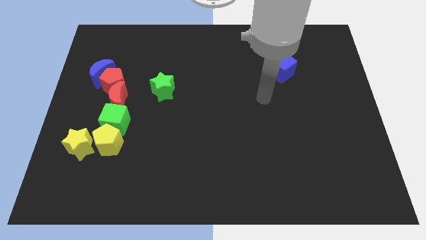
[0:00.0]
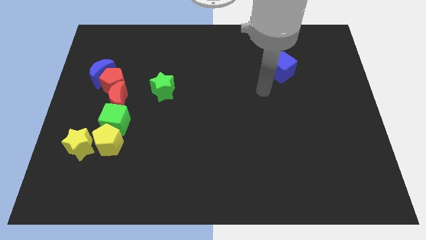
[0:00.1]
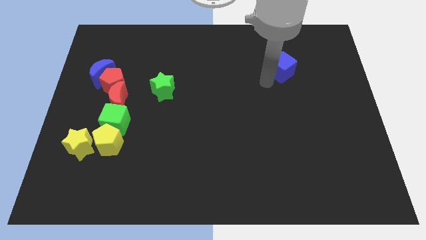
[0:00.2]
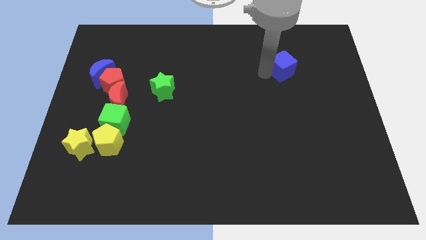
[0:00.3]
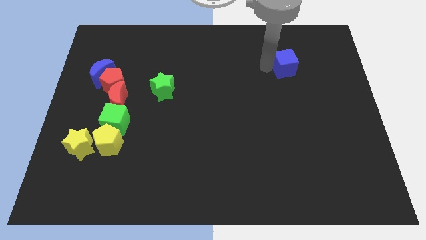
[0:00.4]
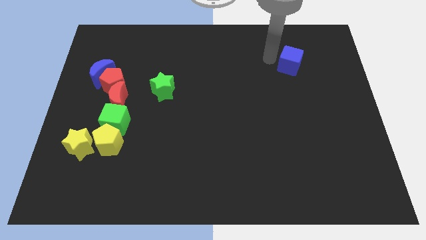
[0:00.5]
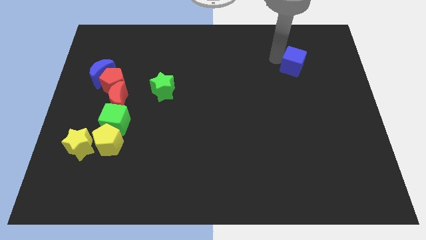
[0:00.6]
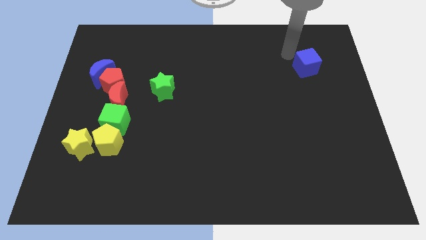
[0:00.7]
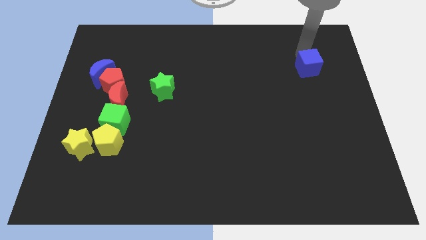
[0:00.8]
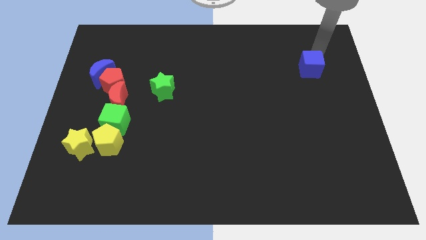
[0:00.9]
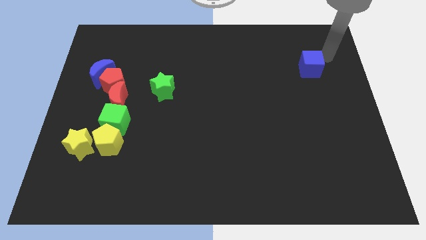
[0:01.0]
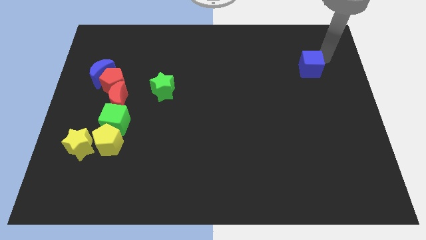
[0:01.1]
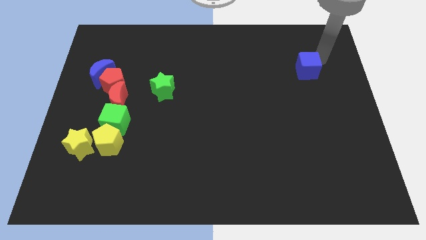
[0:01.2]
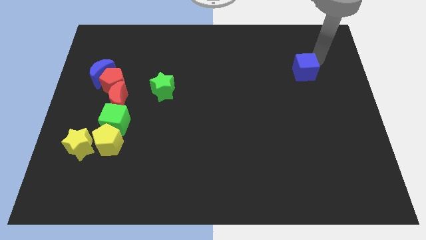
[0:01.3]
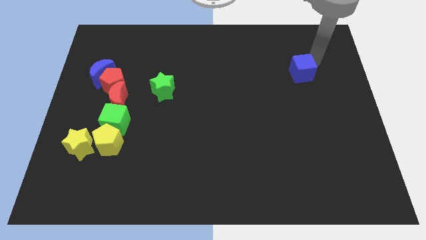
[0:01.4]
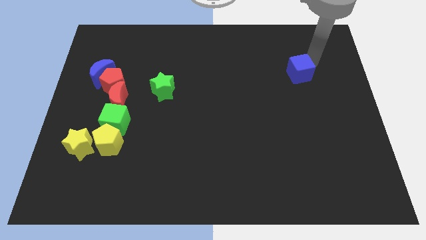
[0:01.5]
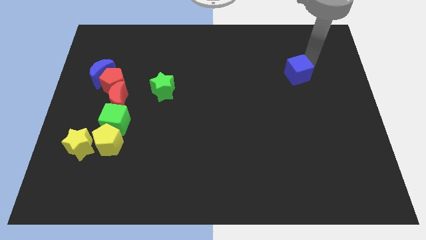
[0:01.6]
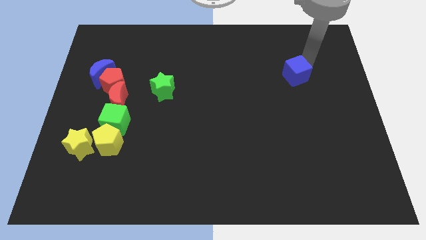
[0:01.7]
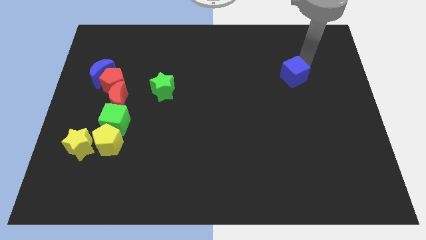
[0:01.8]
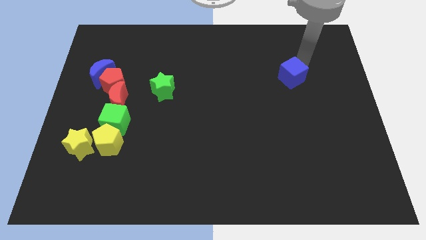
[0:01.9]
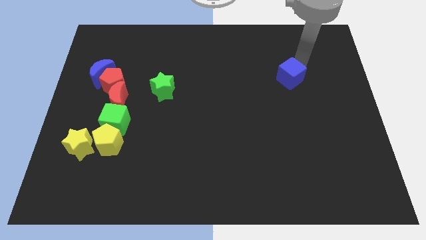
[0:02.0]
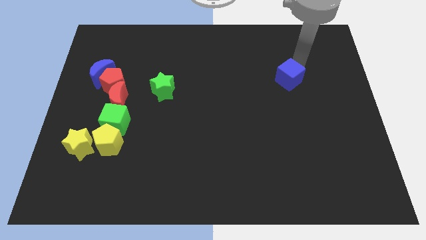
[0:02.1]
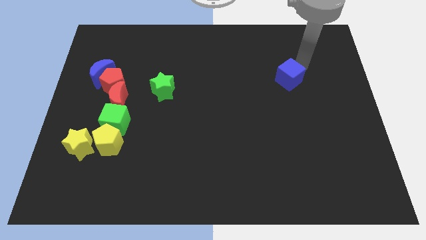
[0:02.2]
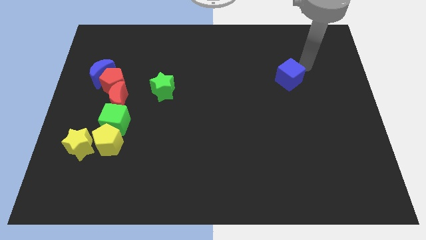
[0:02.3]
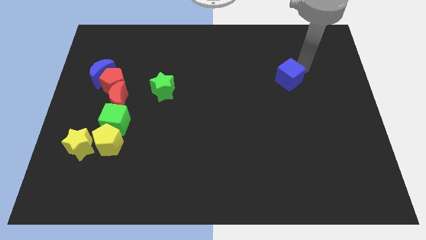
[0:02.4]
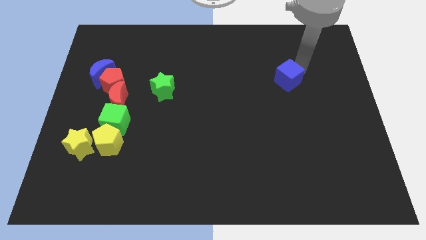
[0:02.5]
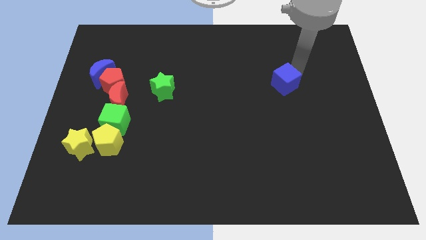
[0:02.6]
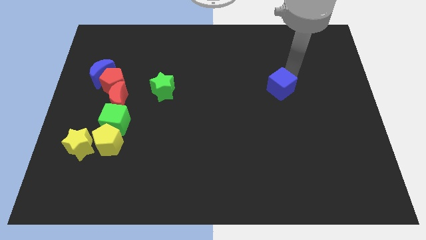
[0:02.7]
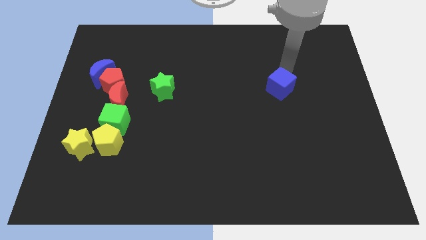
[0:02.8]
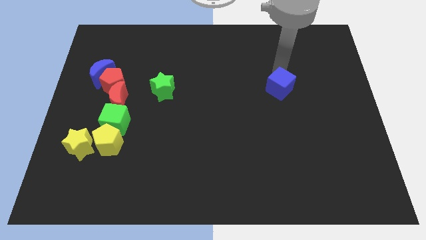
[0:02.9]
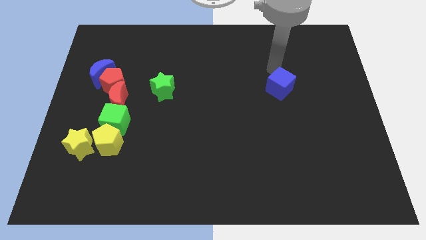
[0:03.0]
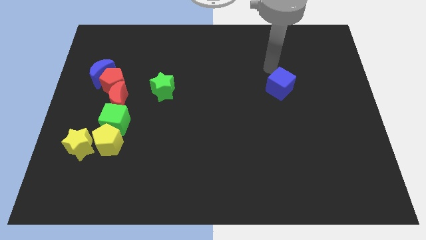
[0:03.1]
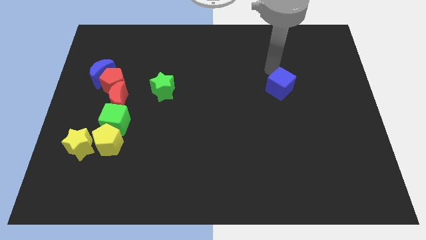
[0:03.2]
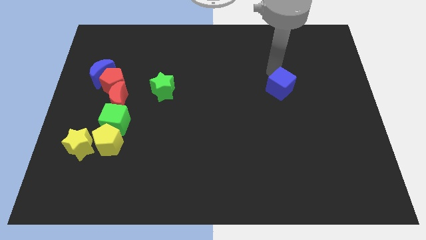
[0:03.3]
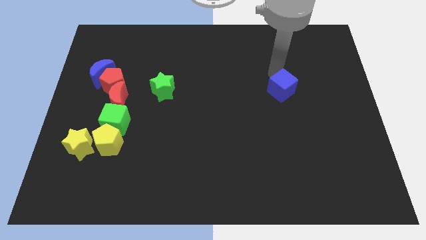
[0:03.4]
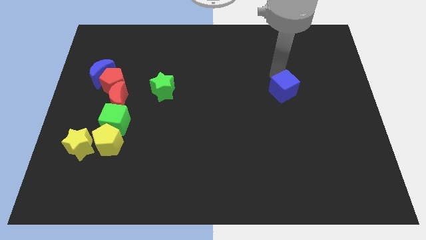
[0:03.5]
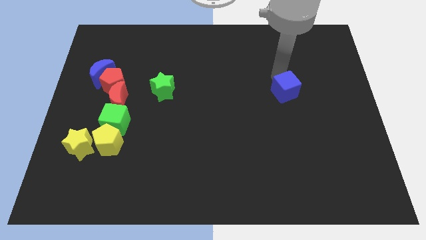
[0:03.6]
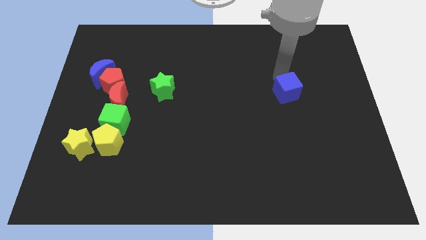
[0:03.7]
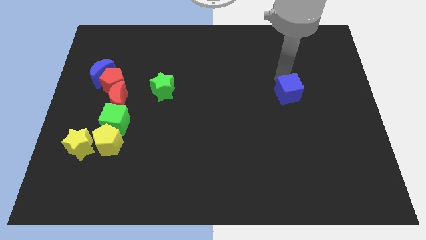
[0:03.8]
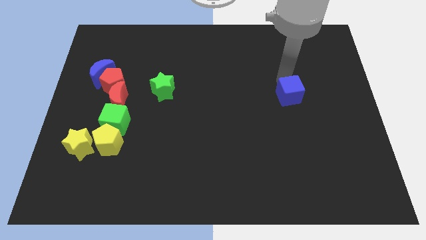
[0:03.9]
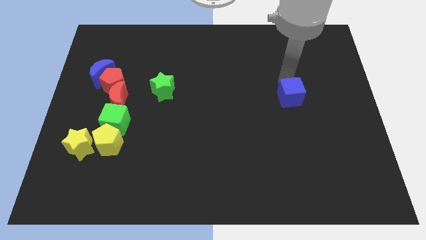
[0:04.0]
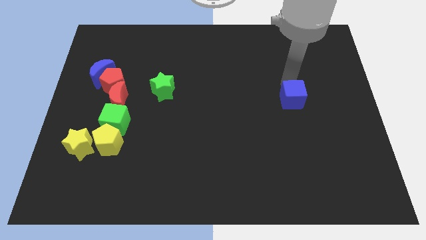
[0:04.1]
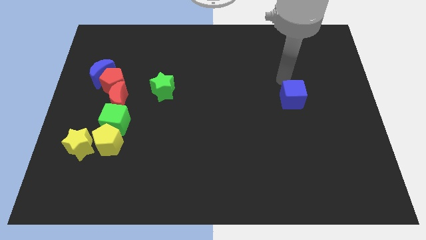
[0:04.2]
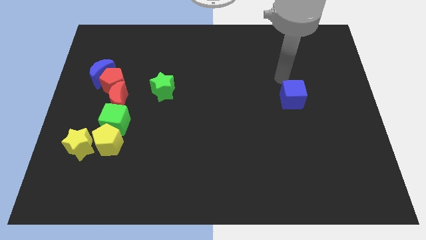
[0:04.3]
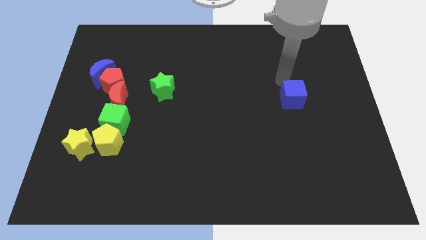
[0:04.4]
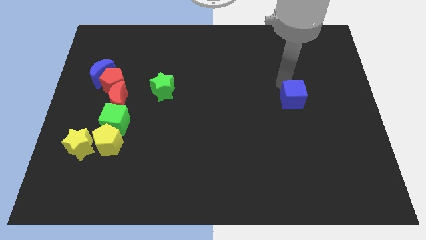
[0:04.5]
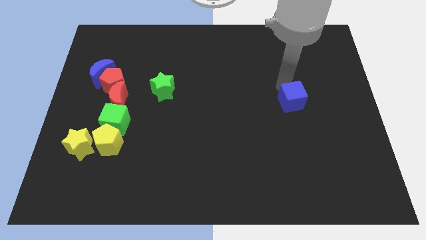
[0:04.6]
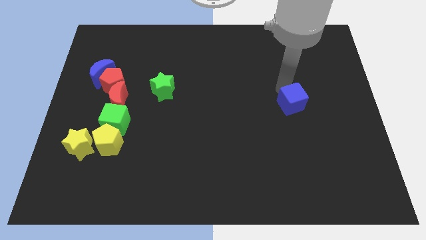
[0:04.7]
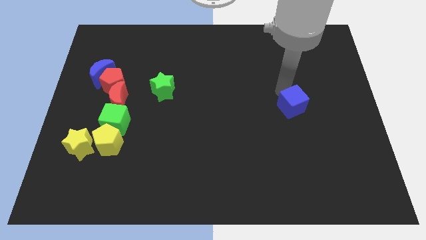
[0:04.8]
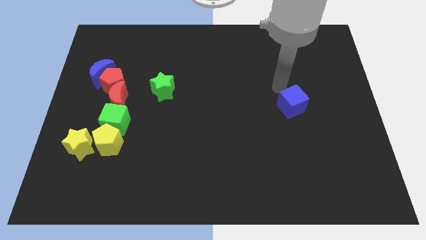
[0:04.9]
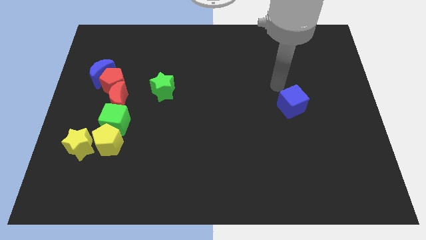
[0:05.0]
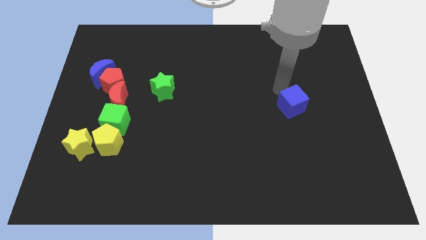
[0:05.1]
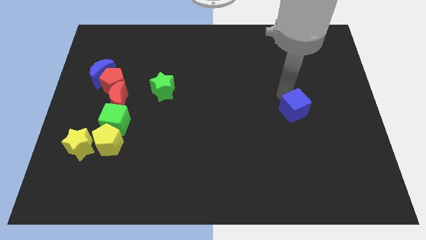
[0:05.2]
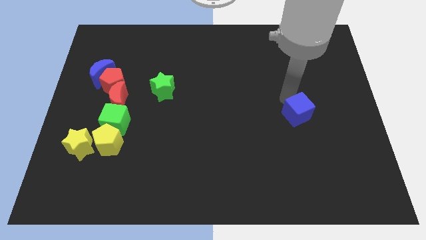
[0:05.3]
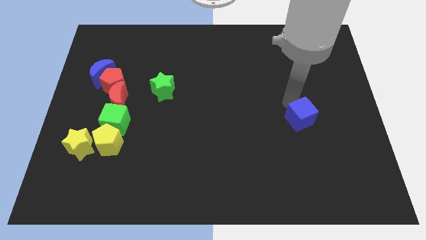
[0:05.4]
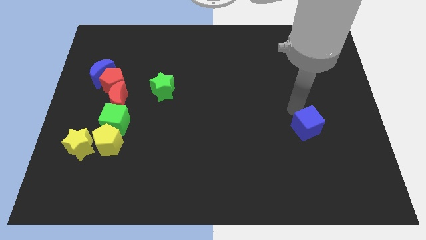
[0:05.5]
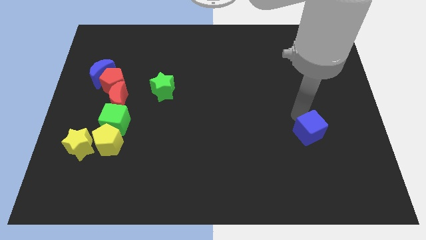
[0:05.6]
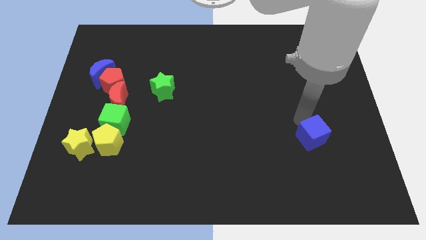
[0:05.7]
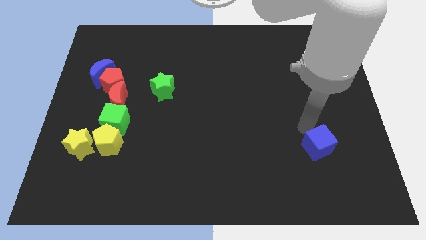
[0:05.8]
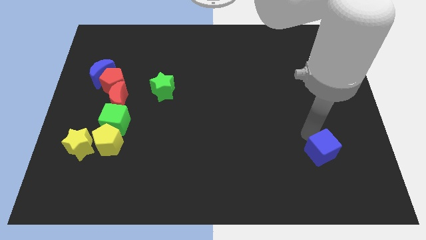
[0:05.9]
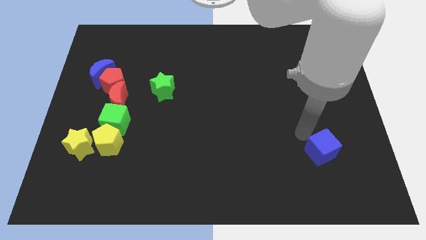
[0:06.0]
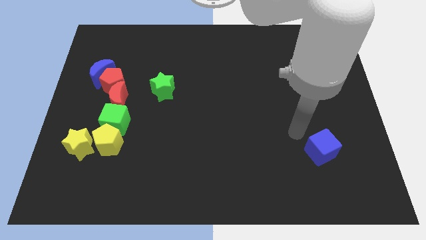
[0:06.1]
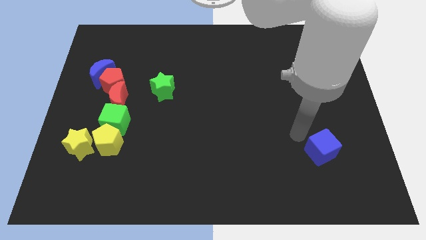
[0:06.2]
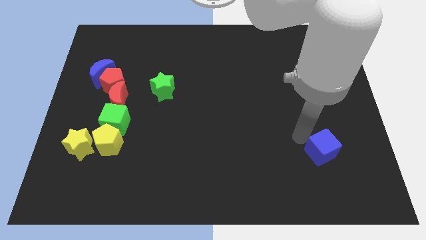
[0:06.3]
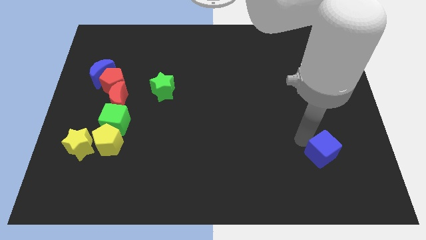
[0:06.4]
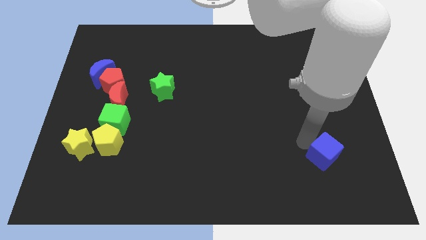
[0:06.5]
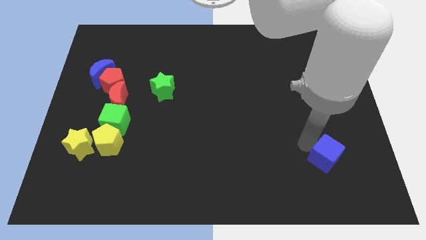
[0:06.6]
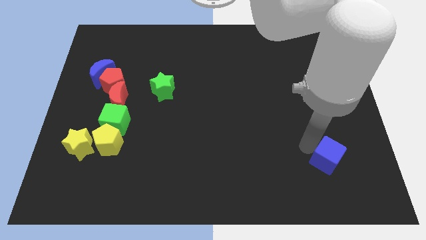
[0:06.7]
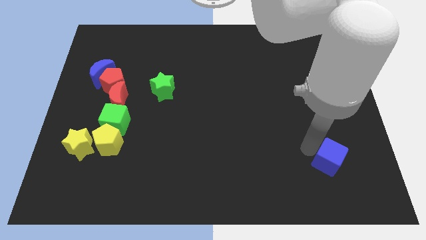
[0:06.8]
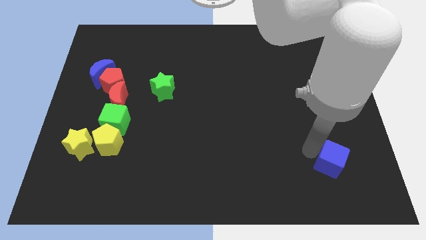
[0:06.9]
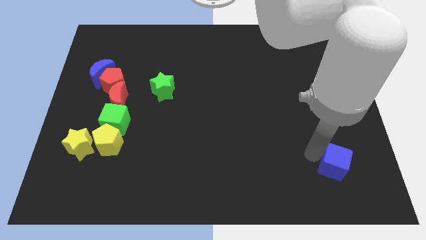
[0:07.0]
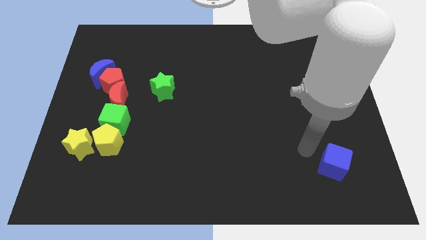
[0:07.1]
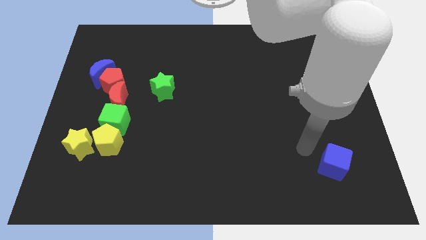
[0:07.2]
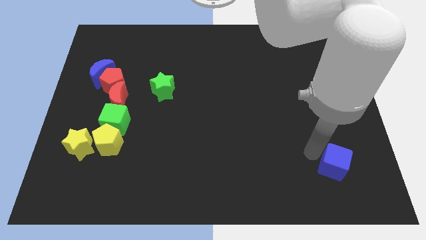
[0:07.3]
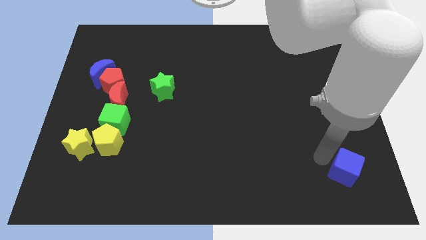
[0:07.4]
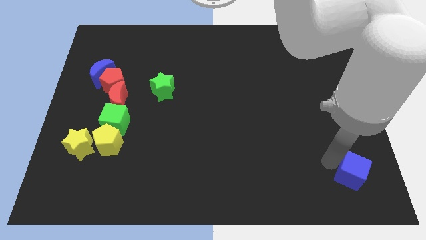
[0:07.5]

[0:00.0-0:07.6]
push the blue cube to the bottom right
